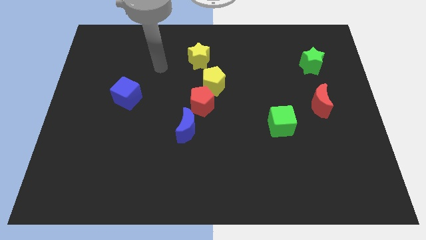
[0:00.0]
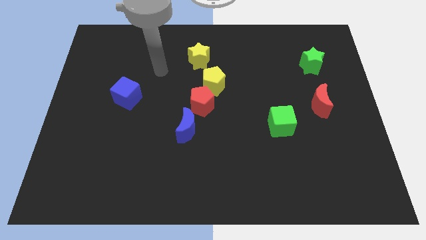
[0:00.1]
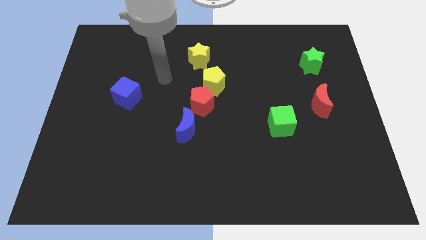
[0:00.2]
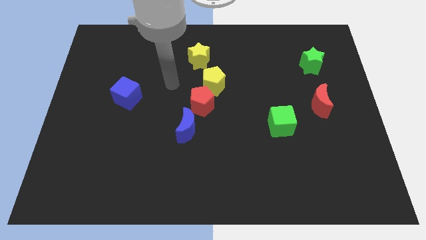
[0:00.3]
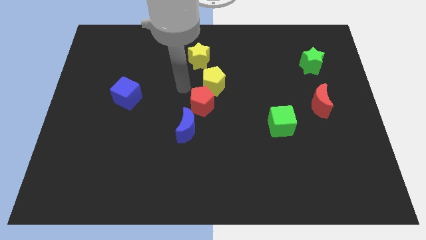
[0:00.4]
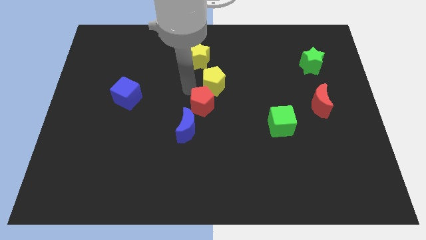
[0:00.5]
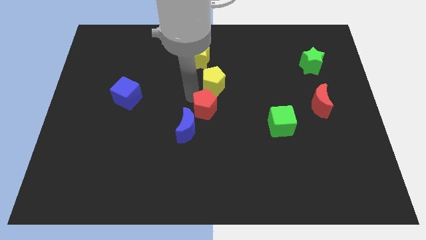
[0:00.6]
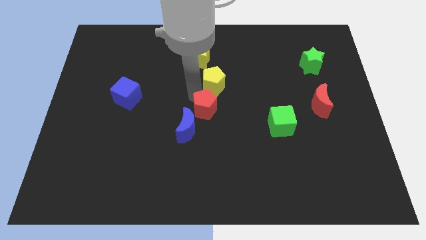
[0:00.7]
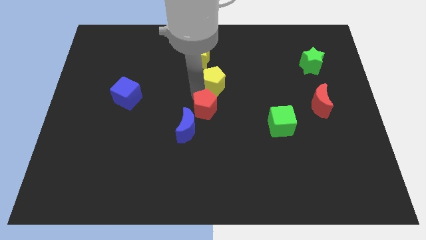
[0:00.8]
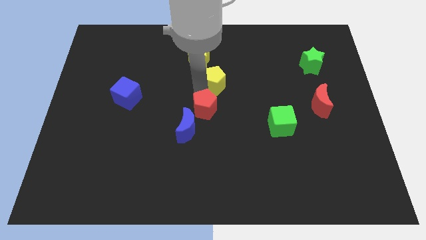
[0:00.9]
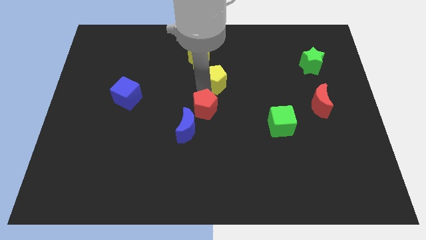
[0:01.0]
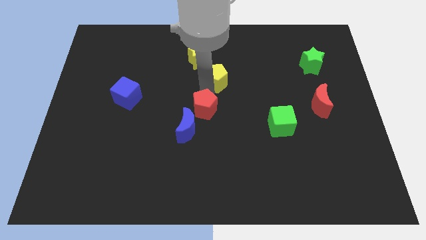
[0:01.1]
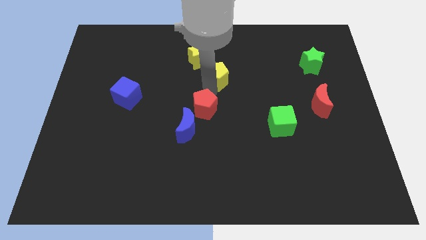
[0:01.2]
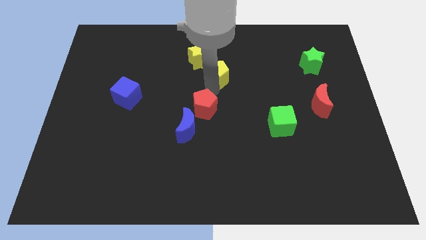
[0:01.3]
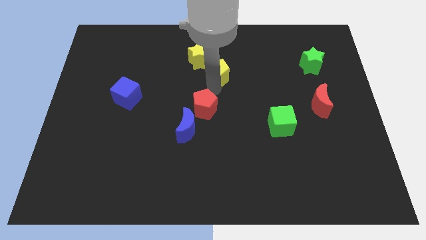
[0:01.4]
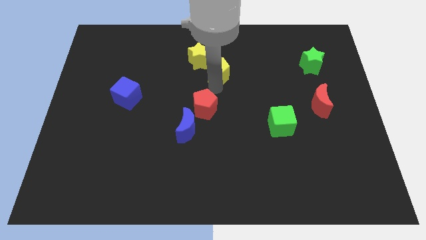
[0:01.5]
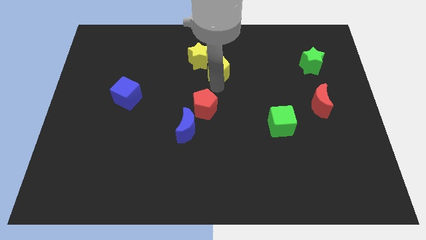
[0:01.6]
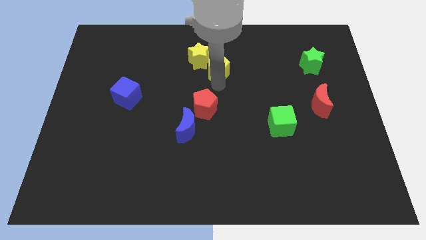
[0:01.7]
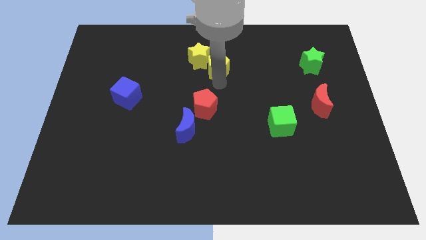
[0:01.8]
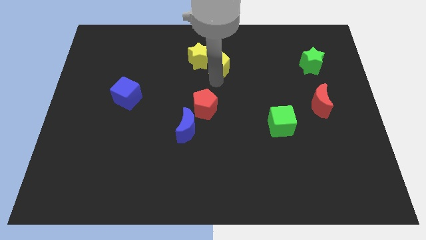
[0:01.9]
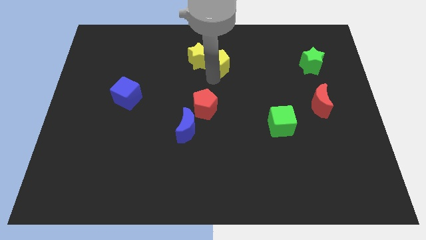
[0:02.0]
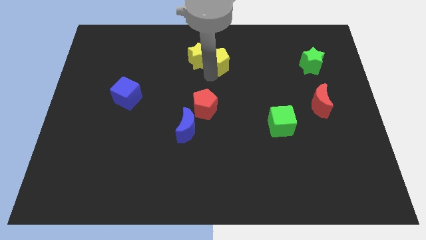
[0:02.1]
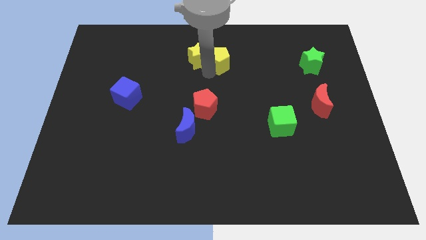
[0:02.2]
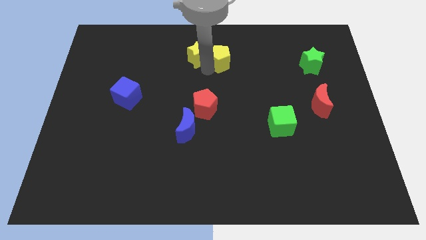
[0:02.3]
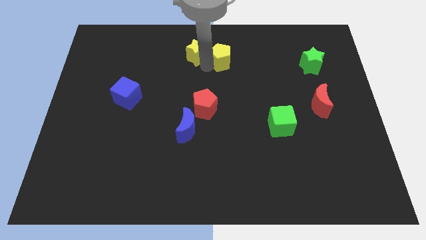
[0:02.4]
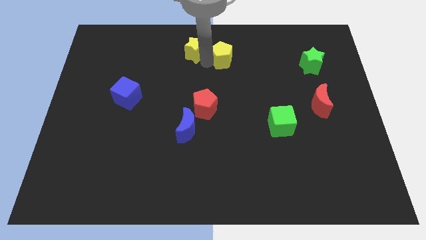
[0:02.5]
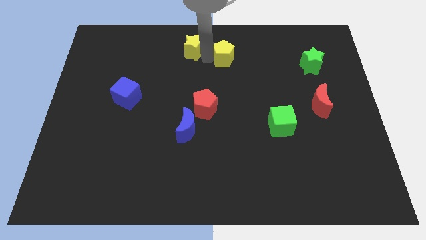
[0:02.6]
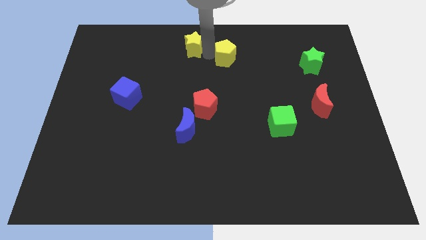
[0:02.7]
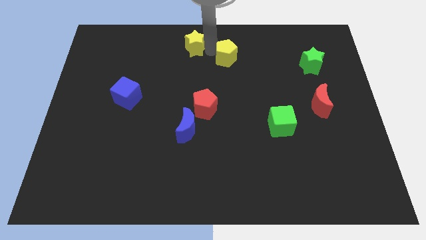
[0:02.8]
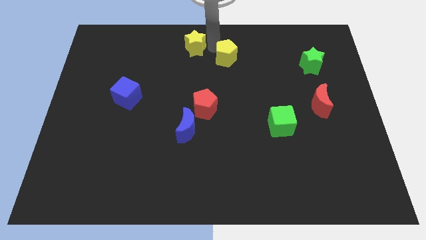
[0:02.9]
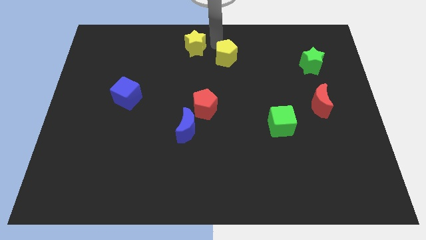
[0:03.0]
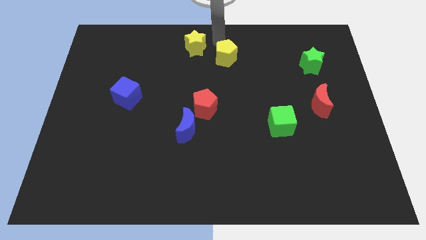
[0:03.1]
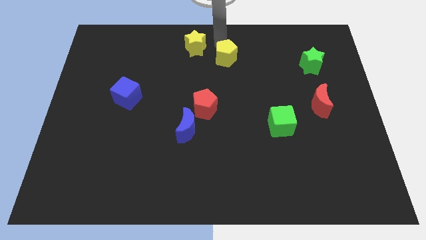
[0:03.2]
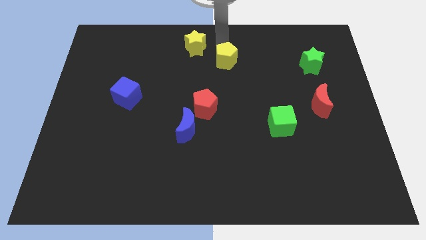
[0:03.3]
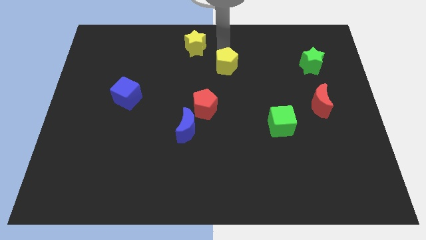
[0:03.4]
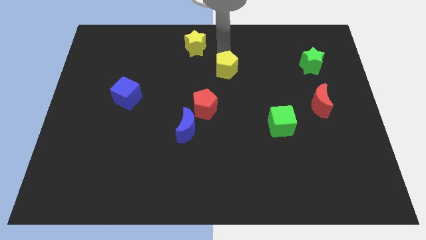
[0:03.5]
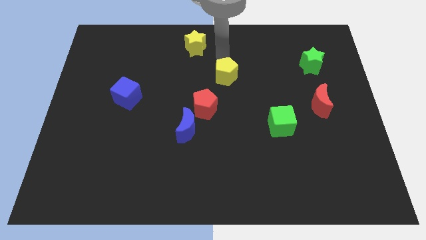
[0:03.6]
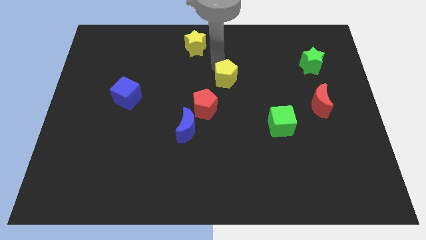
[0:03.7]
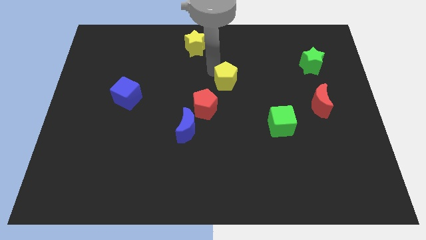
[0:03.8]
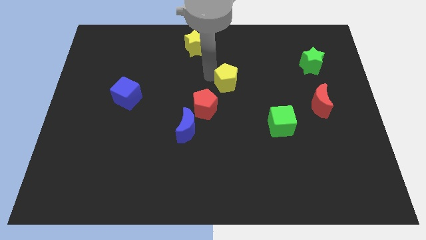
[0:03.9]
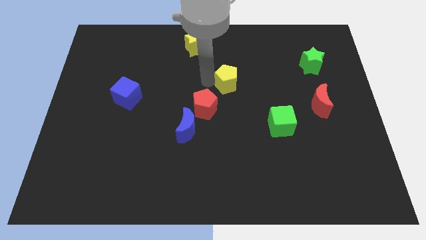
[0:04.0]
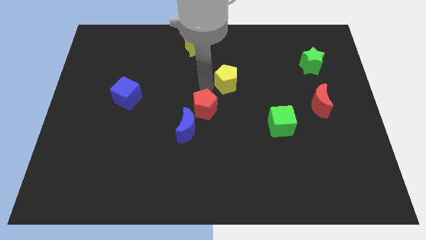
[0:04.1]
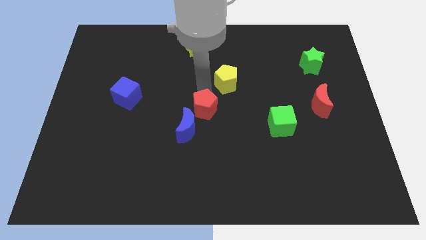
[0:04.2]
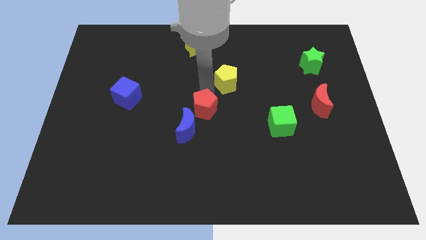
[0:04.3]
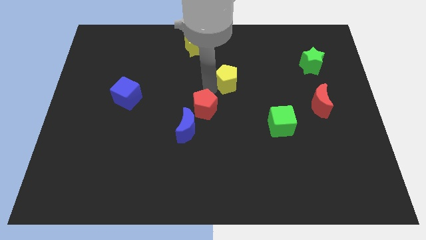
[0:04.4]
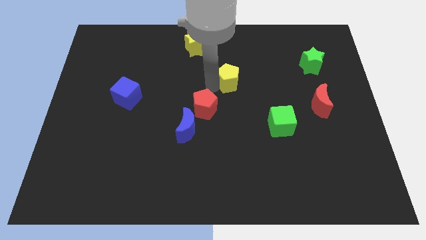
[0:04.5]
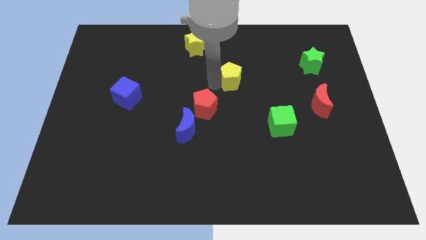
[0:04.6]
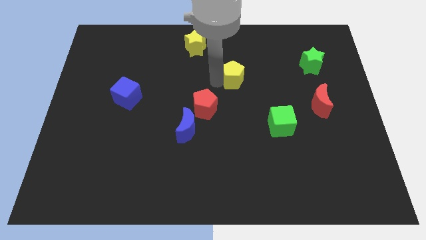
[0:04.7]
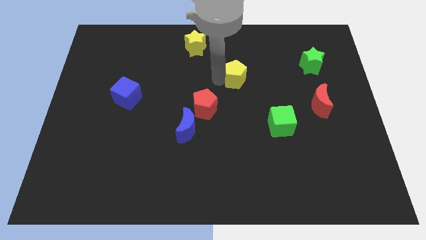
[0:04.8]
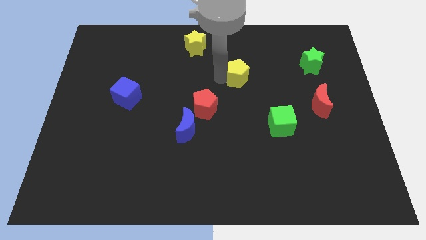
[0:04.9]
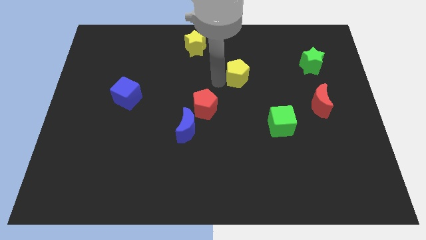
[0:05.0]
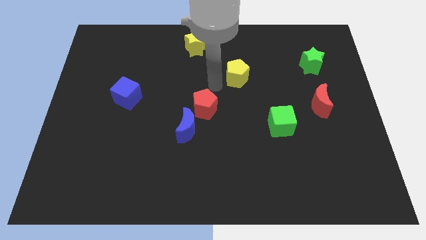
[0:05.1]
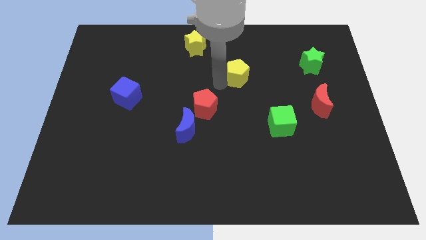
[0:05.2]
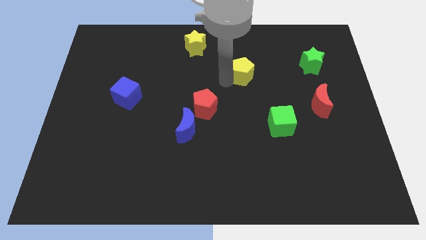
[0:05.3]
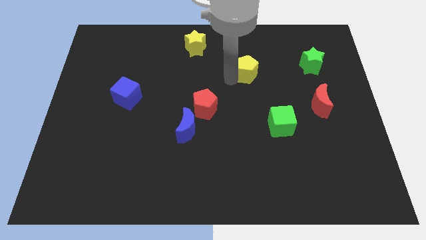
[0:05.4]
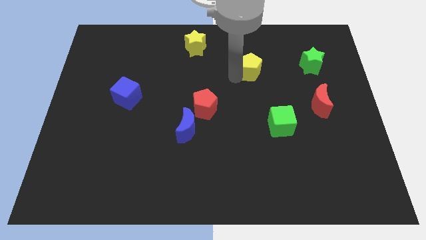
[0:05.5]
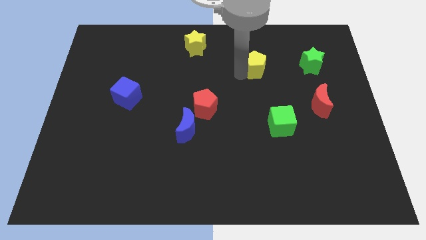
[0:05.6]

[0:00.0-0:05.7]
slide the yellow pentagon to the left of the green star

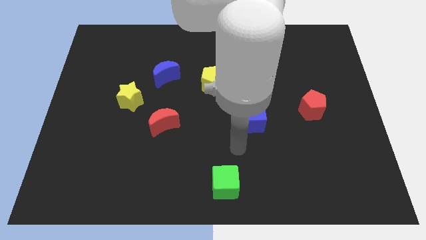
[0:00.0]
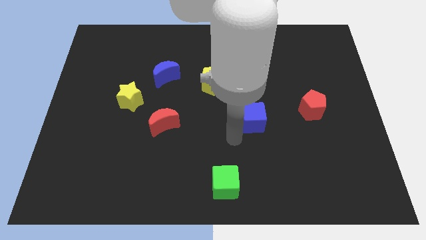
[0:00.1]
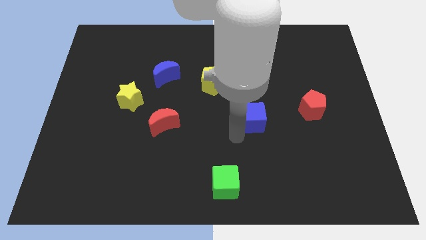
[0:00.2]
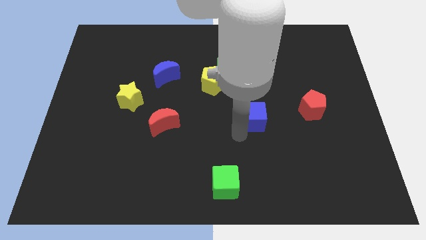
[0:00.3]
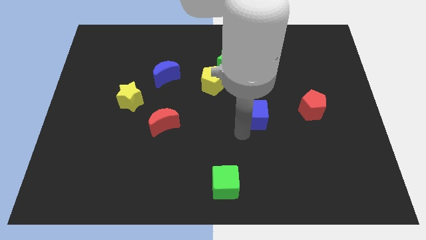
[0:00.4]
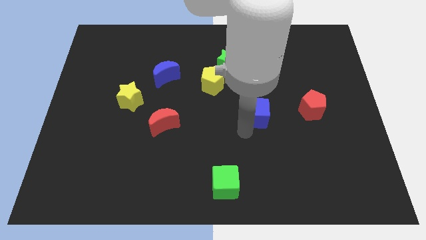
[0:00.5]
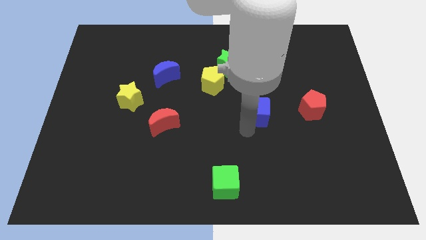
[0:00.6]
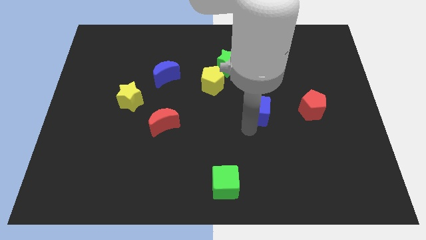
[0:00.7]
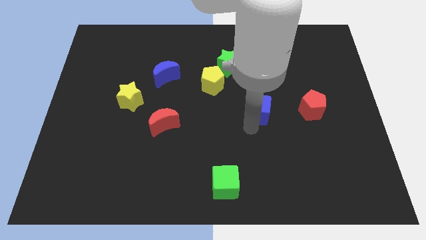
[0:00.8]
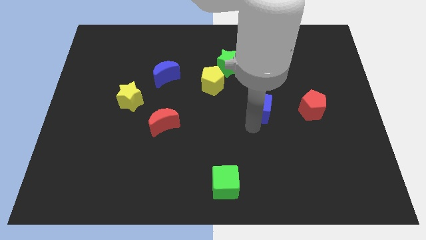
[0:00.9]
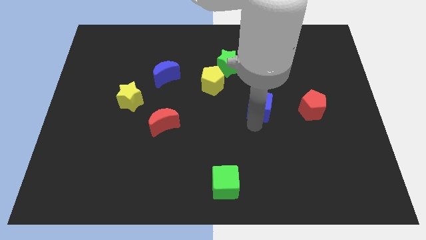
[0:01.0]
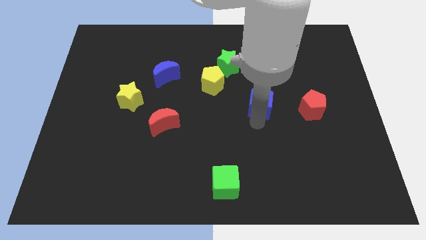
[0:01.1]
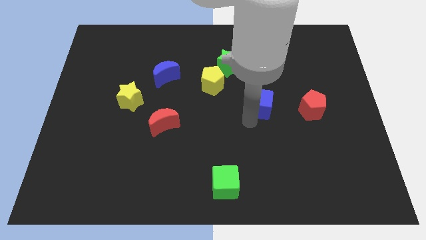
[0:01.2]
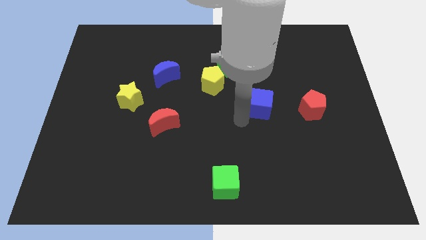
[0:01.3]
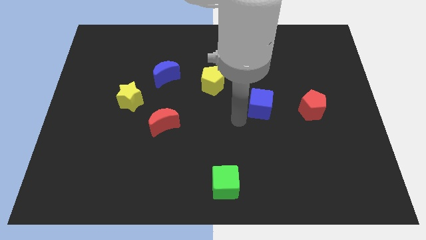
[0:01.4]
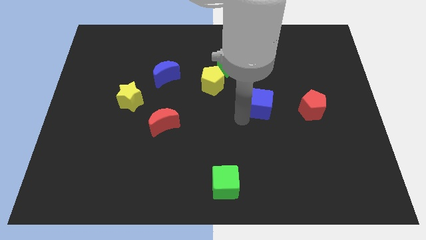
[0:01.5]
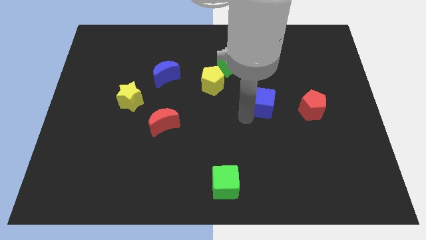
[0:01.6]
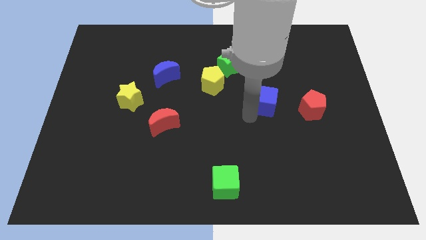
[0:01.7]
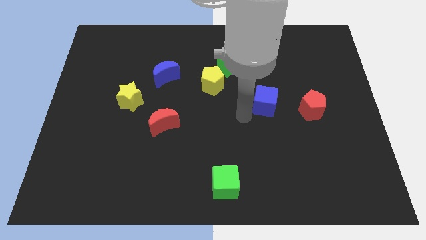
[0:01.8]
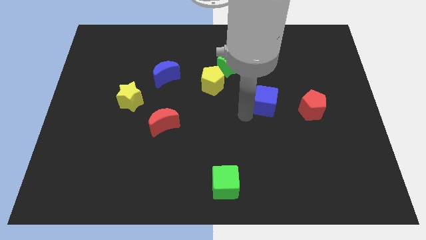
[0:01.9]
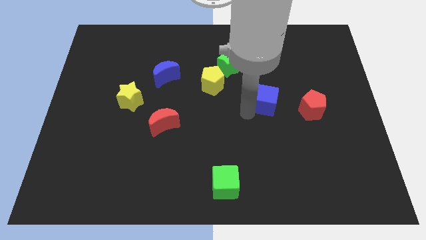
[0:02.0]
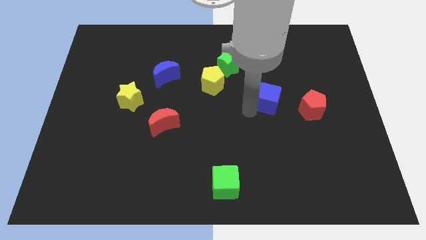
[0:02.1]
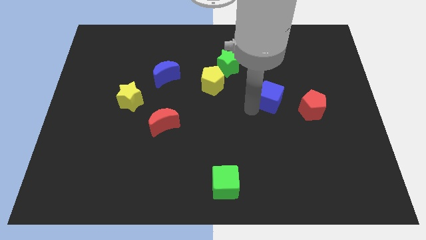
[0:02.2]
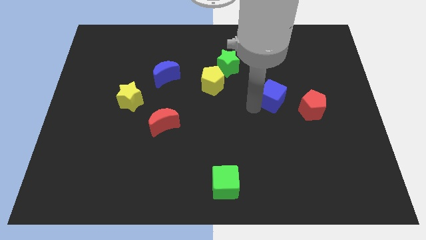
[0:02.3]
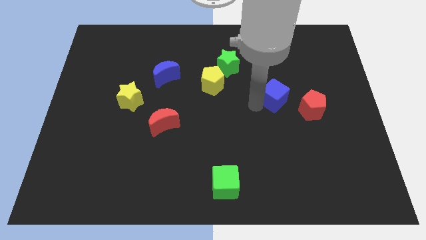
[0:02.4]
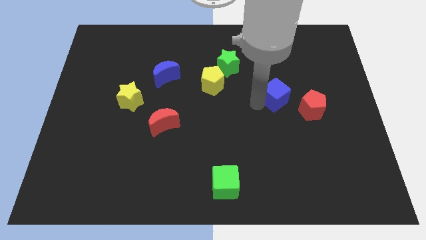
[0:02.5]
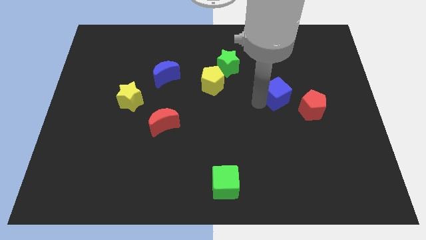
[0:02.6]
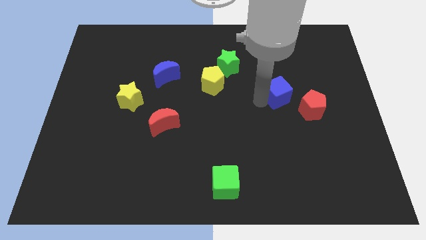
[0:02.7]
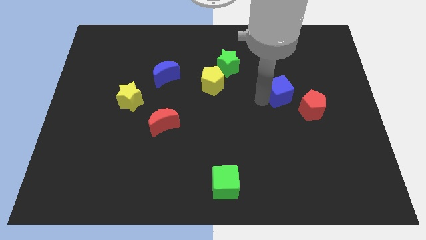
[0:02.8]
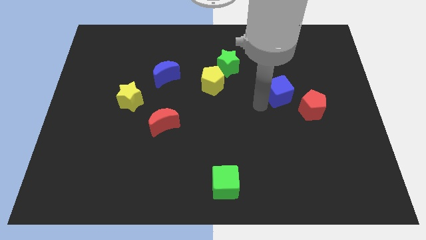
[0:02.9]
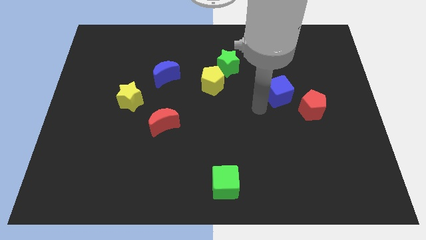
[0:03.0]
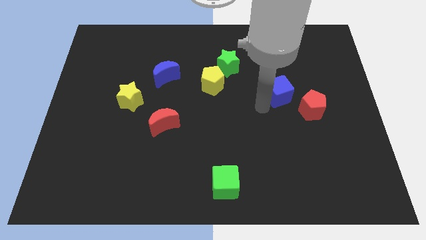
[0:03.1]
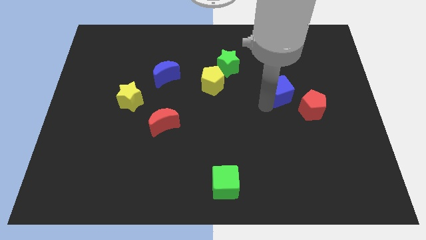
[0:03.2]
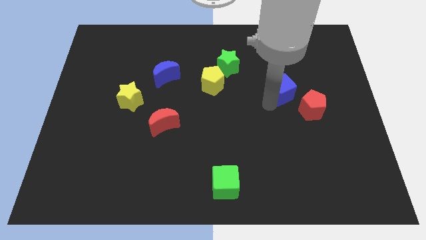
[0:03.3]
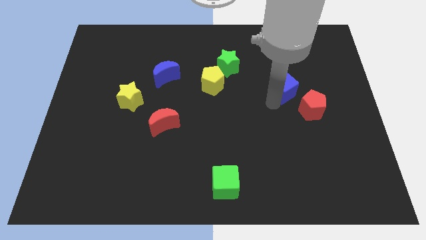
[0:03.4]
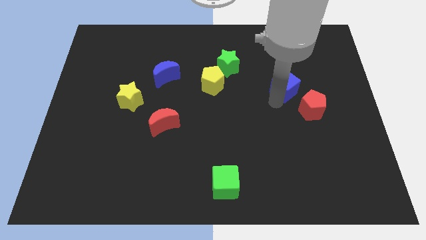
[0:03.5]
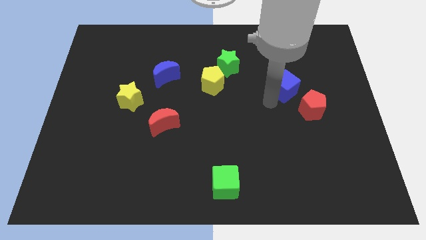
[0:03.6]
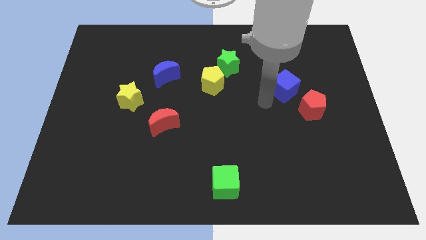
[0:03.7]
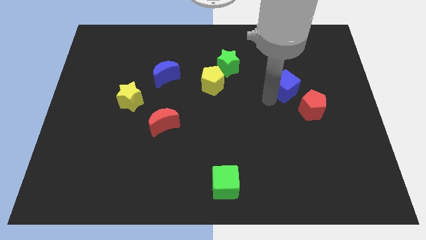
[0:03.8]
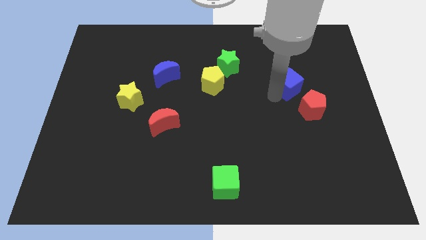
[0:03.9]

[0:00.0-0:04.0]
move the blue cube to the top of the red pentagon
